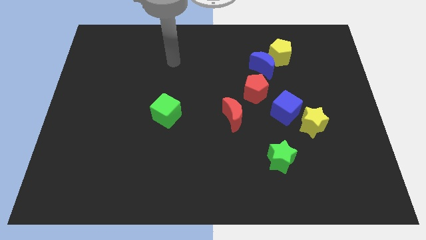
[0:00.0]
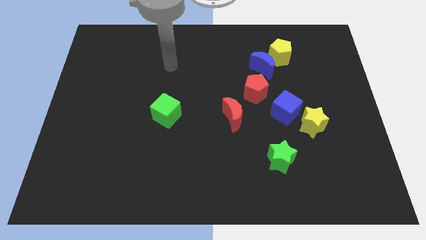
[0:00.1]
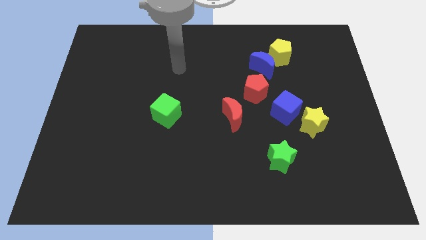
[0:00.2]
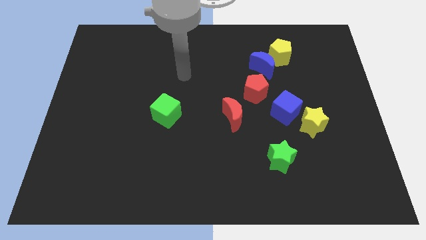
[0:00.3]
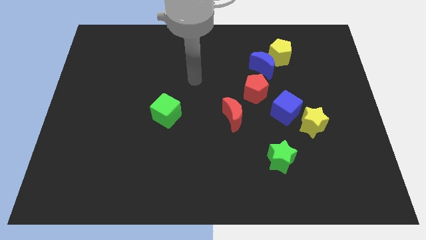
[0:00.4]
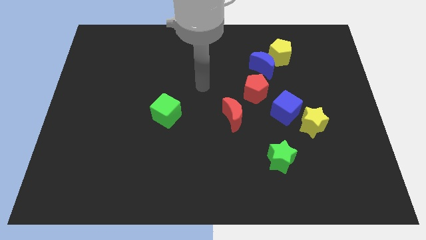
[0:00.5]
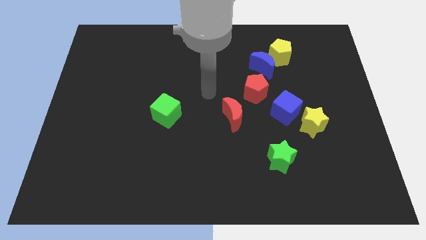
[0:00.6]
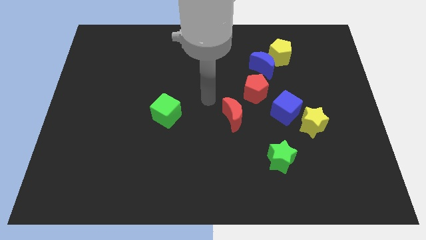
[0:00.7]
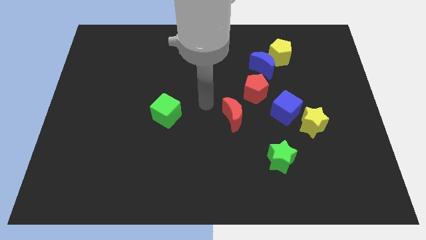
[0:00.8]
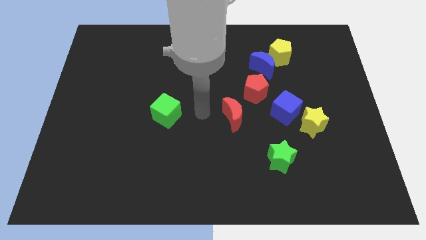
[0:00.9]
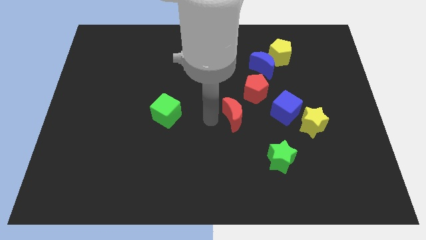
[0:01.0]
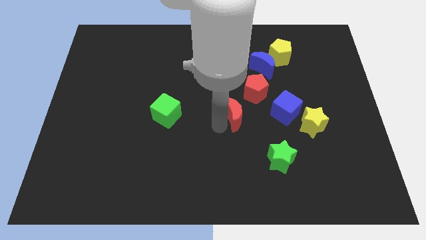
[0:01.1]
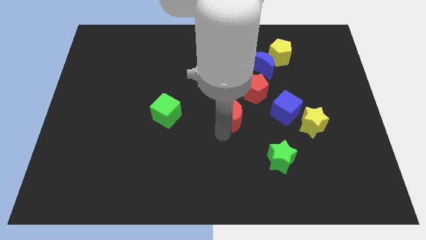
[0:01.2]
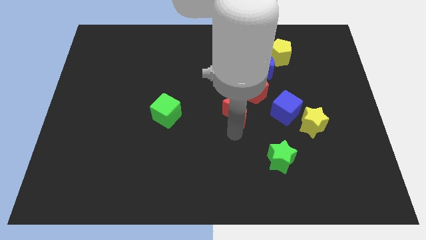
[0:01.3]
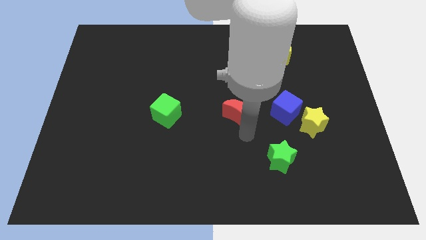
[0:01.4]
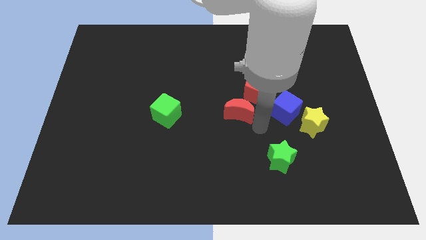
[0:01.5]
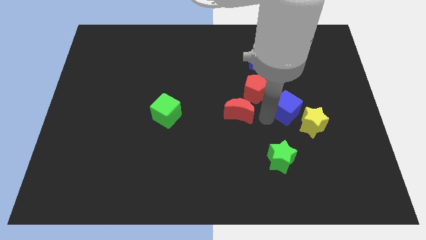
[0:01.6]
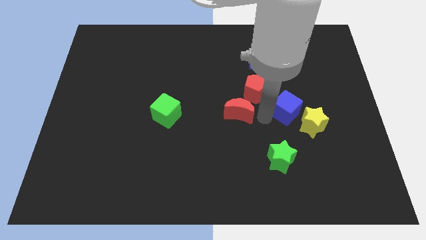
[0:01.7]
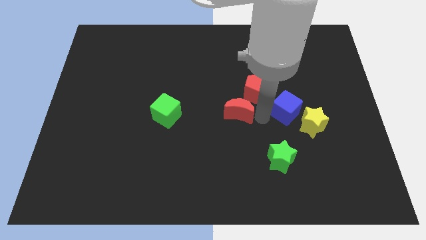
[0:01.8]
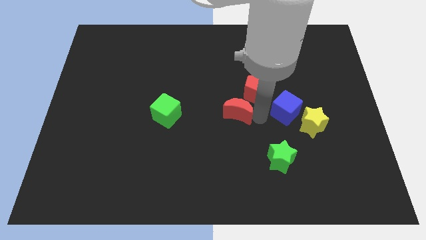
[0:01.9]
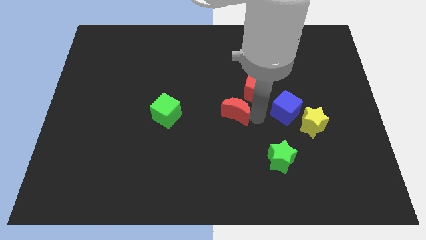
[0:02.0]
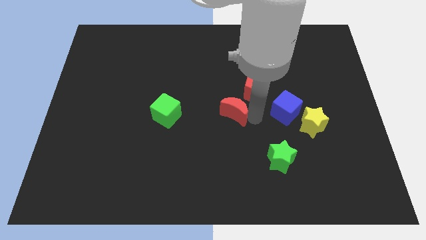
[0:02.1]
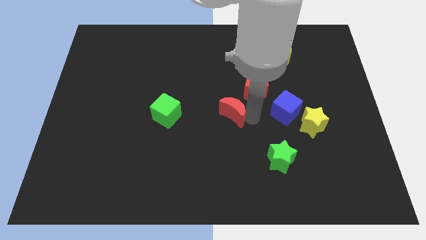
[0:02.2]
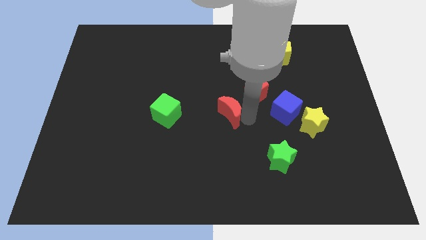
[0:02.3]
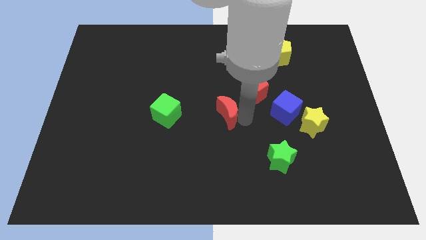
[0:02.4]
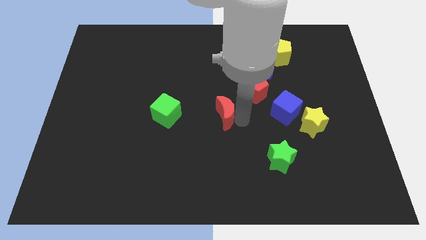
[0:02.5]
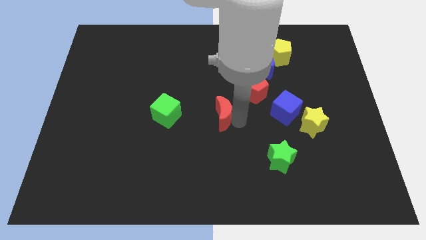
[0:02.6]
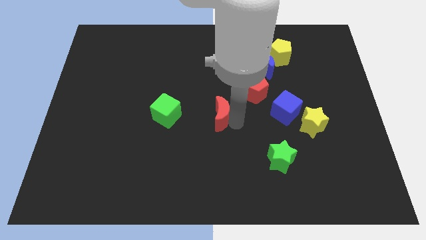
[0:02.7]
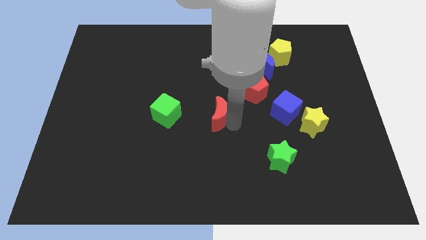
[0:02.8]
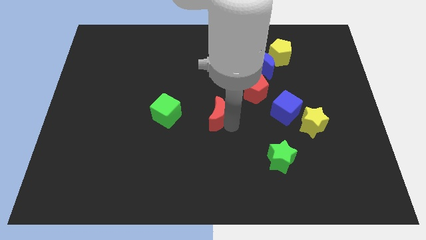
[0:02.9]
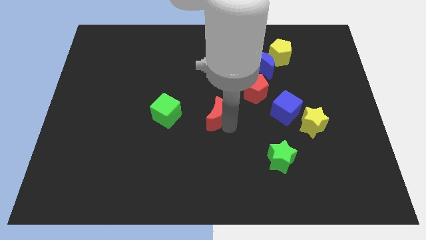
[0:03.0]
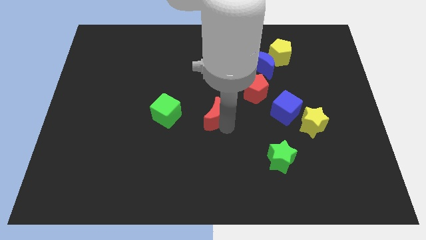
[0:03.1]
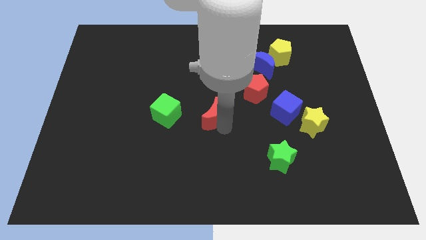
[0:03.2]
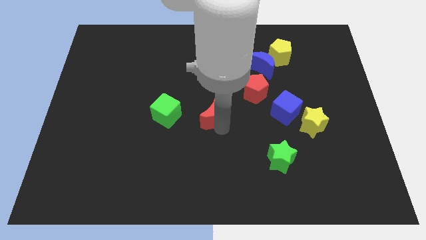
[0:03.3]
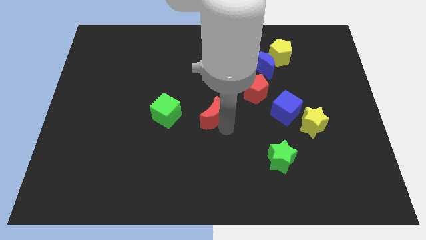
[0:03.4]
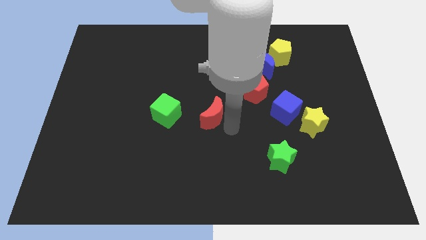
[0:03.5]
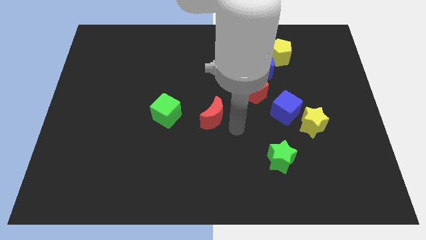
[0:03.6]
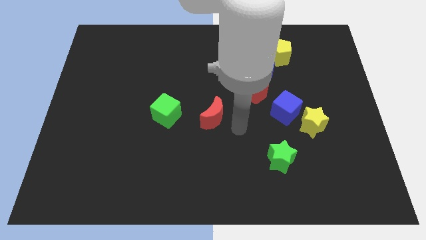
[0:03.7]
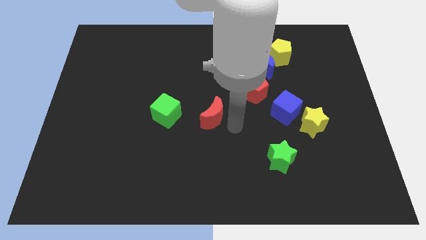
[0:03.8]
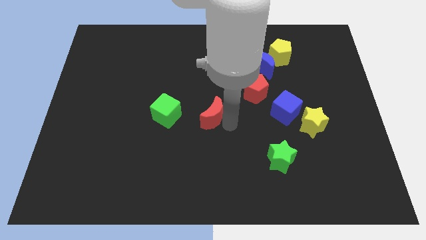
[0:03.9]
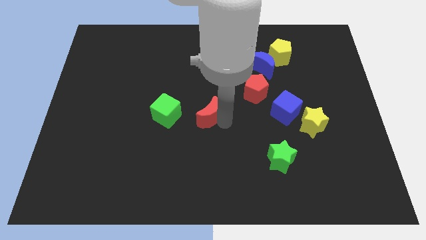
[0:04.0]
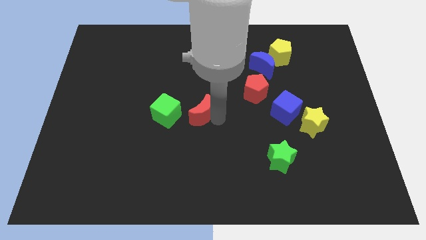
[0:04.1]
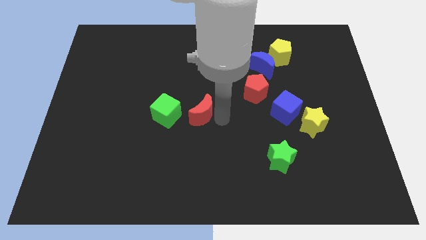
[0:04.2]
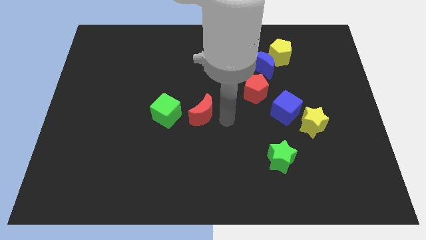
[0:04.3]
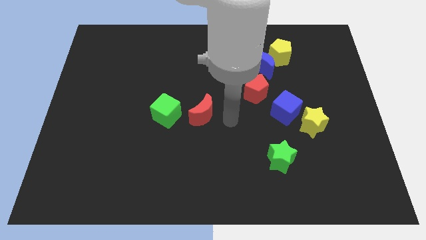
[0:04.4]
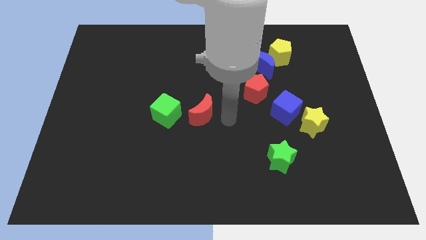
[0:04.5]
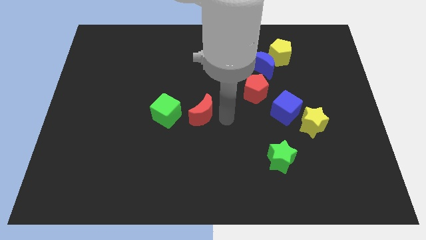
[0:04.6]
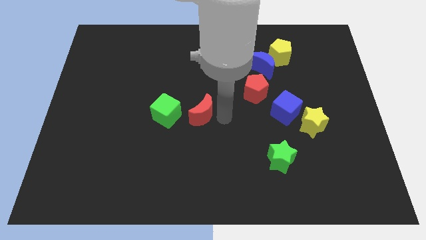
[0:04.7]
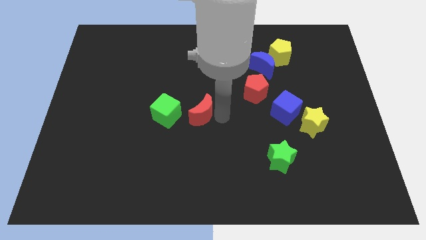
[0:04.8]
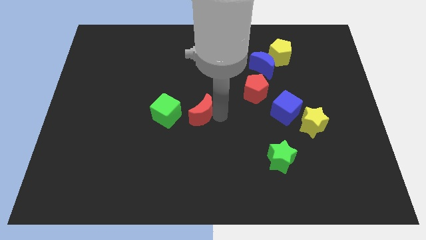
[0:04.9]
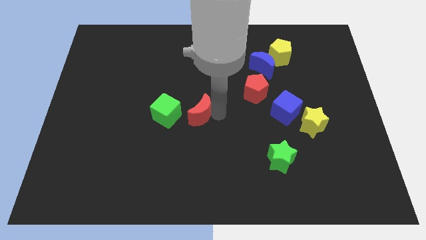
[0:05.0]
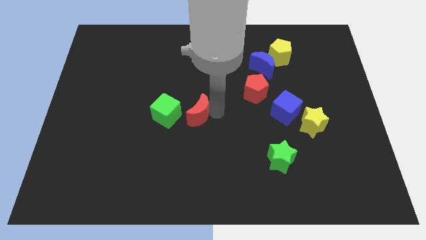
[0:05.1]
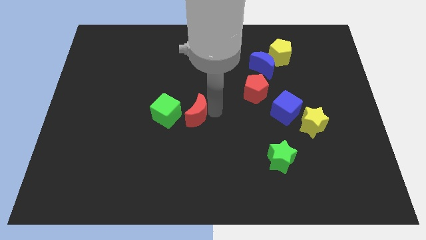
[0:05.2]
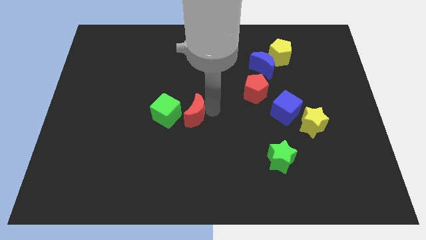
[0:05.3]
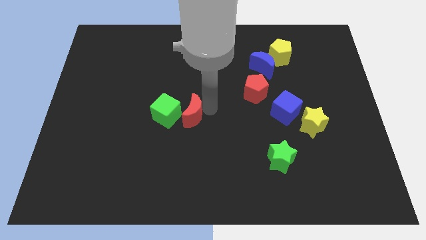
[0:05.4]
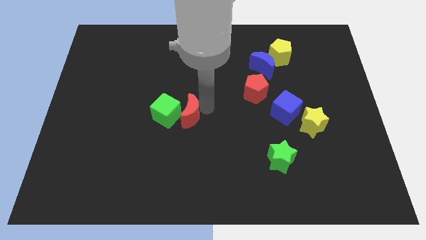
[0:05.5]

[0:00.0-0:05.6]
move the red moon to the green cube

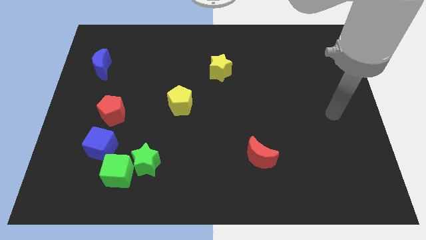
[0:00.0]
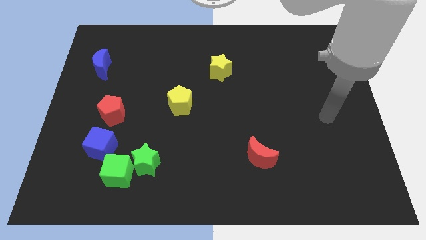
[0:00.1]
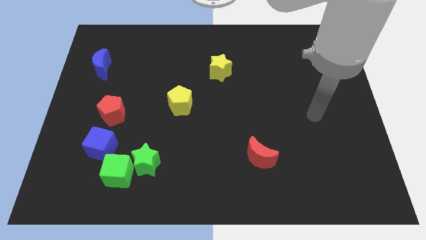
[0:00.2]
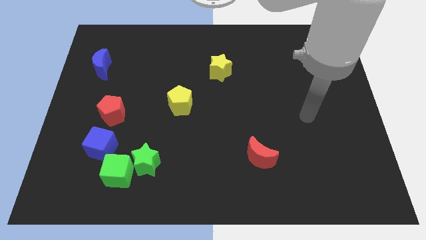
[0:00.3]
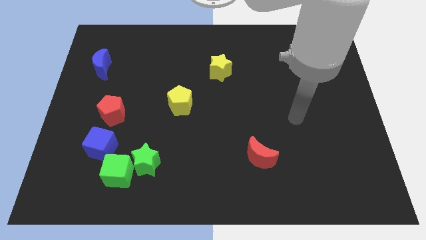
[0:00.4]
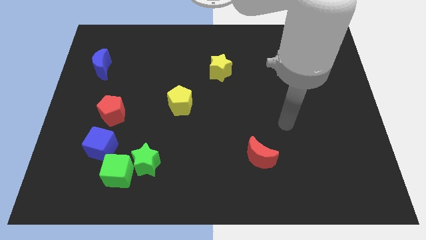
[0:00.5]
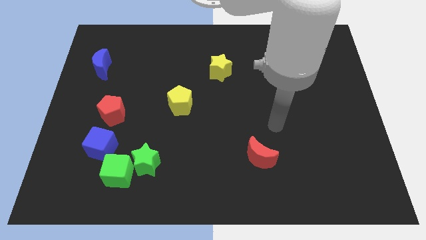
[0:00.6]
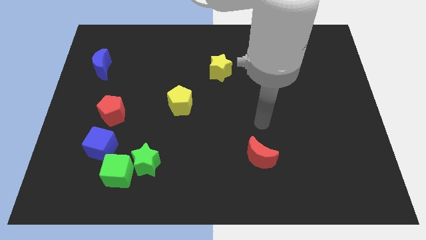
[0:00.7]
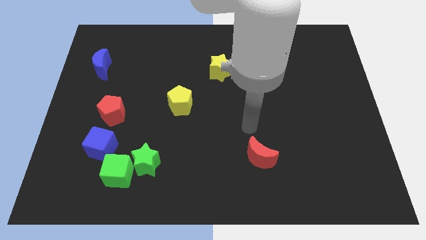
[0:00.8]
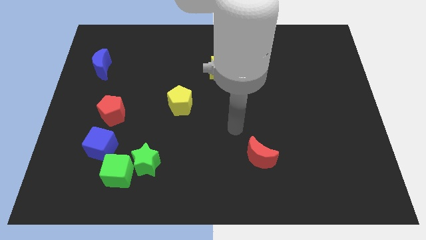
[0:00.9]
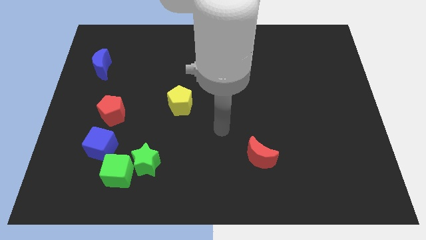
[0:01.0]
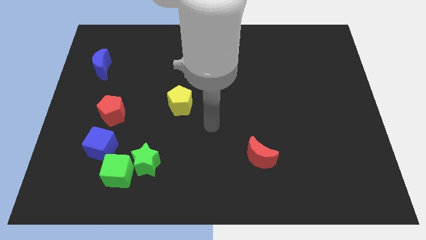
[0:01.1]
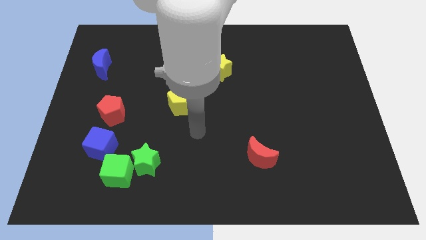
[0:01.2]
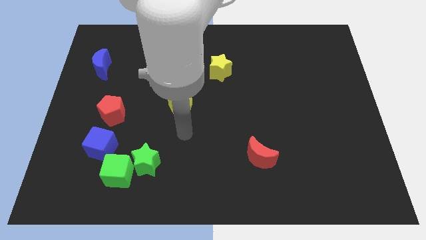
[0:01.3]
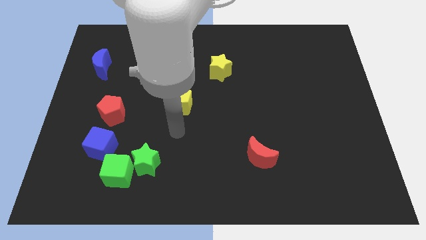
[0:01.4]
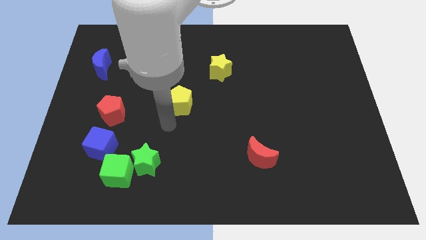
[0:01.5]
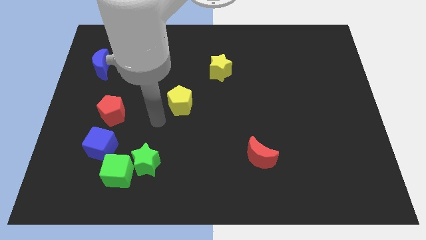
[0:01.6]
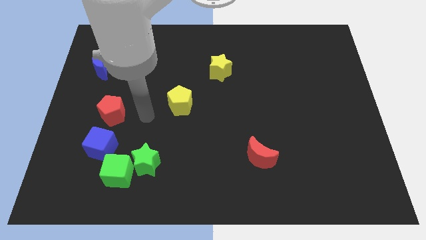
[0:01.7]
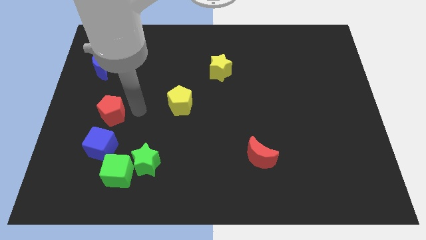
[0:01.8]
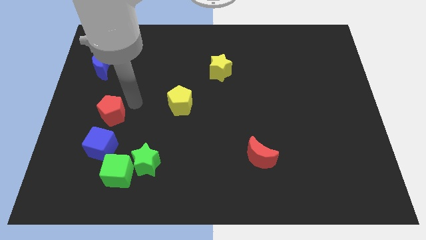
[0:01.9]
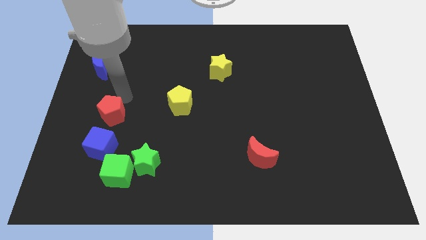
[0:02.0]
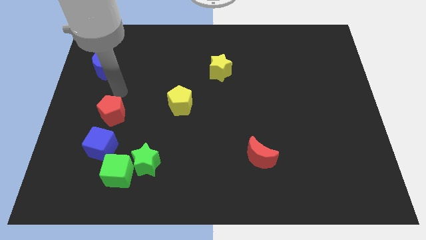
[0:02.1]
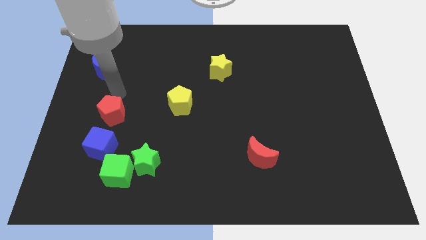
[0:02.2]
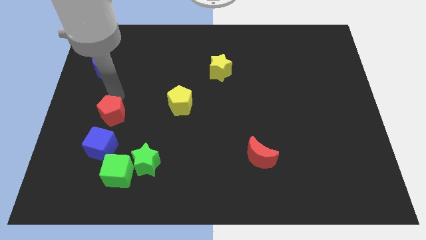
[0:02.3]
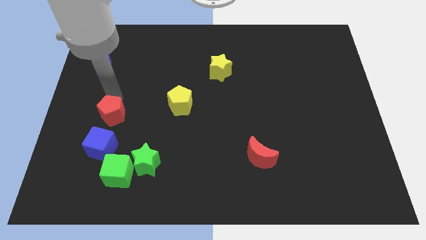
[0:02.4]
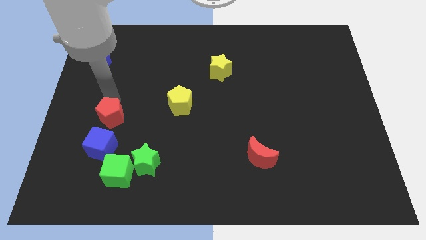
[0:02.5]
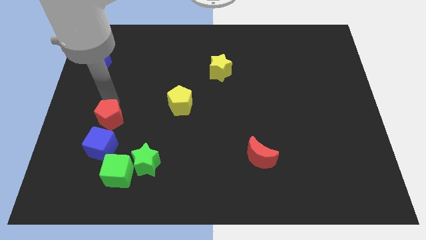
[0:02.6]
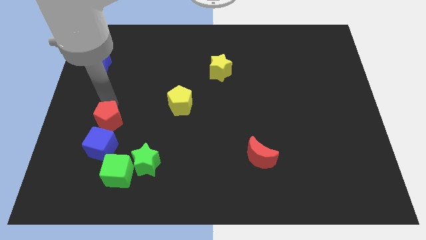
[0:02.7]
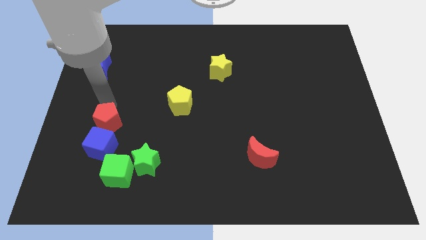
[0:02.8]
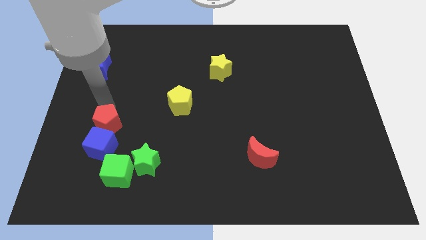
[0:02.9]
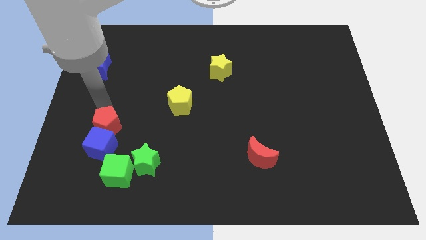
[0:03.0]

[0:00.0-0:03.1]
push the red pentagon close to the blue cube
